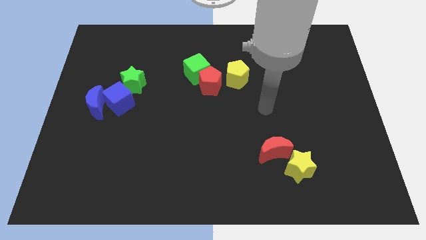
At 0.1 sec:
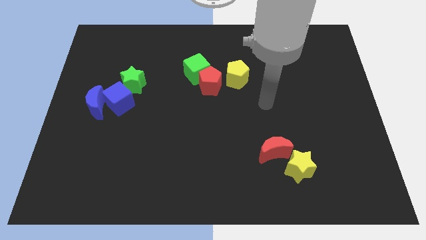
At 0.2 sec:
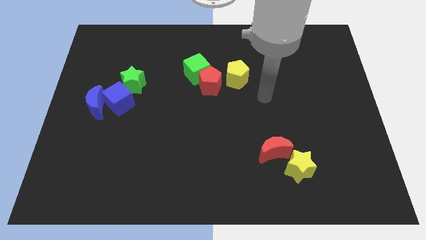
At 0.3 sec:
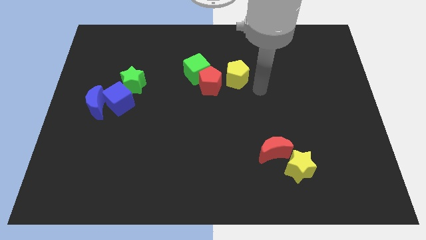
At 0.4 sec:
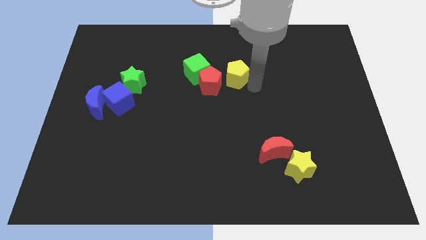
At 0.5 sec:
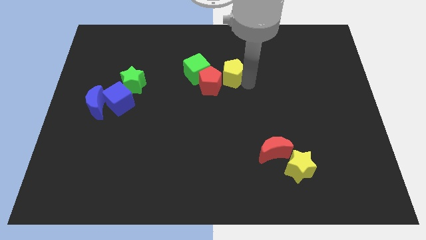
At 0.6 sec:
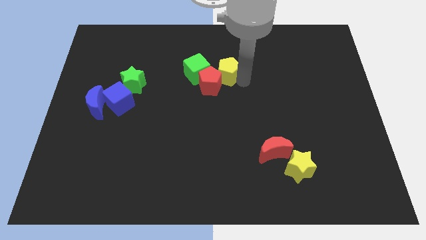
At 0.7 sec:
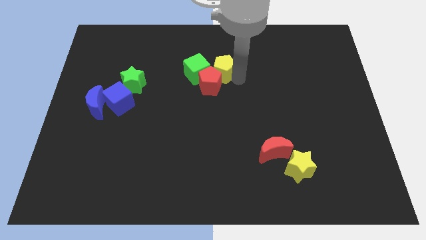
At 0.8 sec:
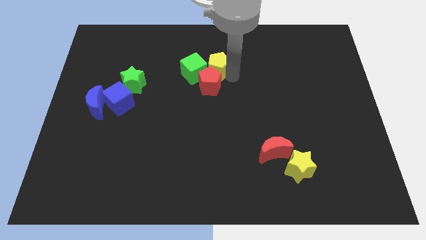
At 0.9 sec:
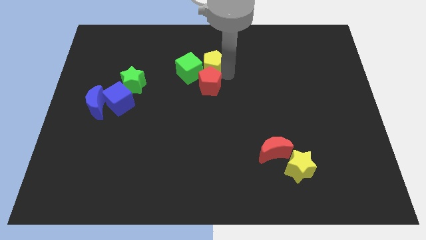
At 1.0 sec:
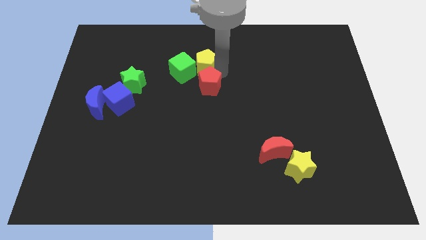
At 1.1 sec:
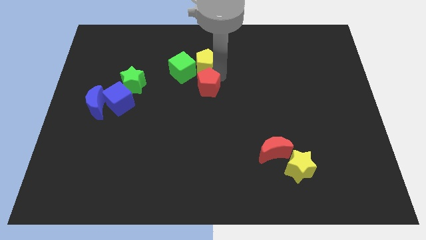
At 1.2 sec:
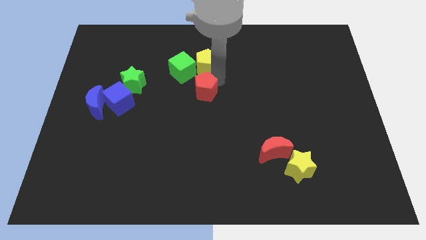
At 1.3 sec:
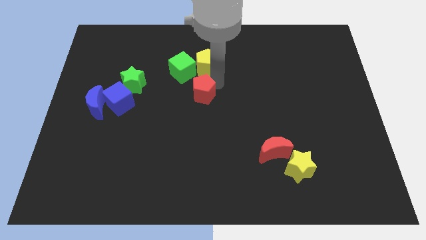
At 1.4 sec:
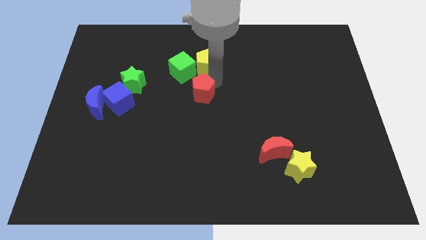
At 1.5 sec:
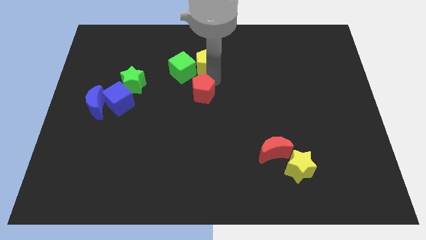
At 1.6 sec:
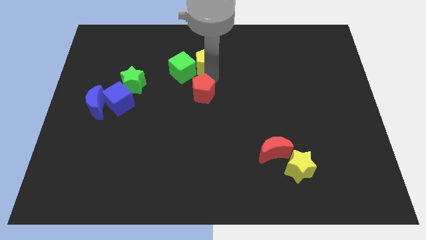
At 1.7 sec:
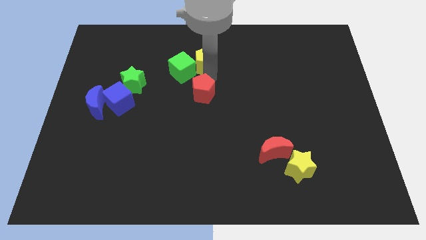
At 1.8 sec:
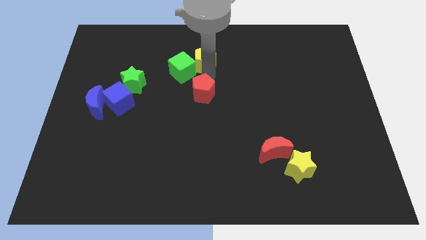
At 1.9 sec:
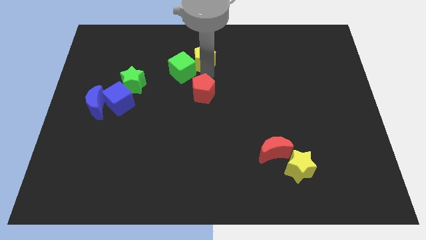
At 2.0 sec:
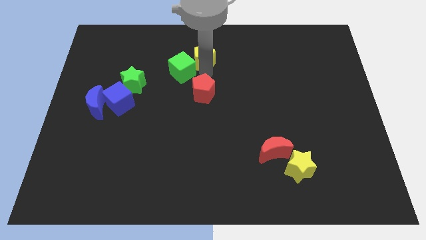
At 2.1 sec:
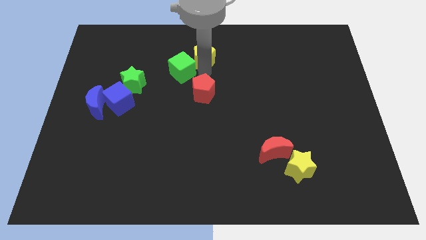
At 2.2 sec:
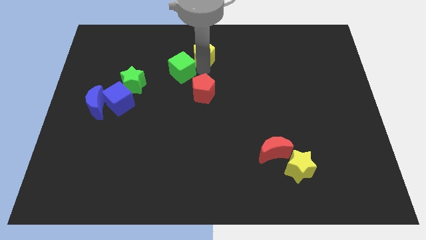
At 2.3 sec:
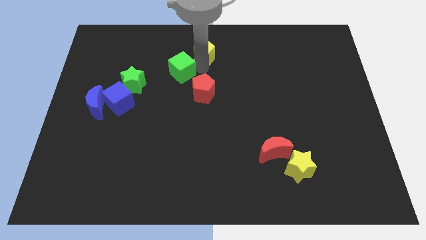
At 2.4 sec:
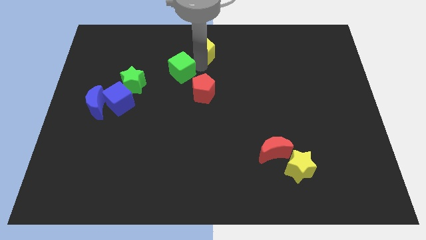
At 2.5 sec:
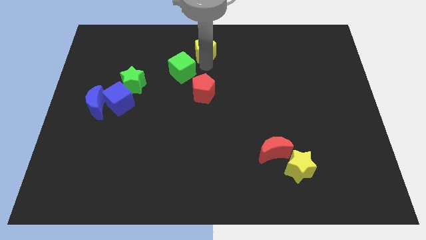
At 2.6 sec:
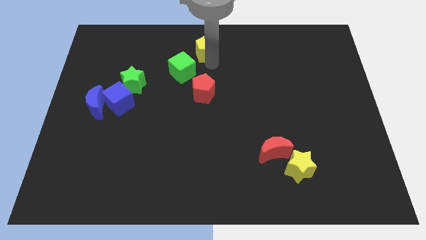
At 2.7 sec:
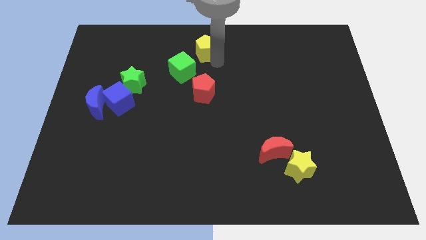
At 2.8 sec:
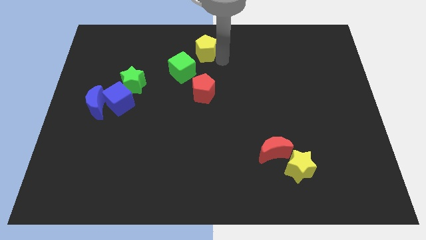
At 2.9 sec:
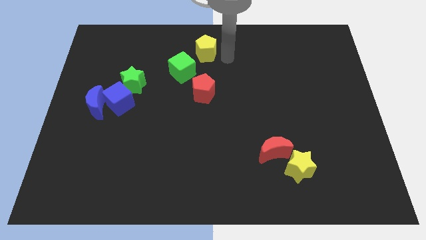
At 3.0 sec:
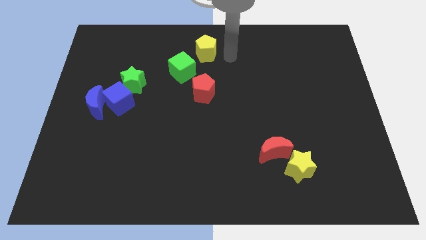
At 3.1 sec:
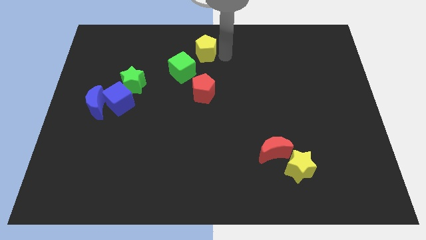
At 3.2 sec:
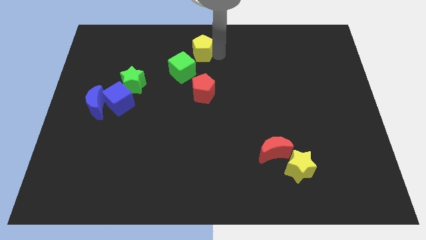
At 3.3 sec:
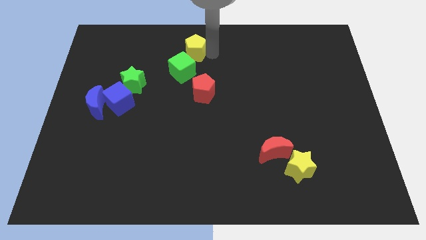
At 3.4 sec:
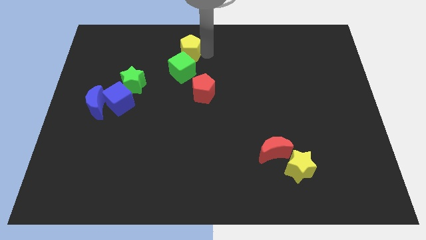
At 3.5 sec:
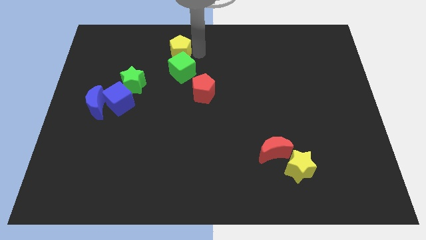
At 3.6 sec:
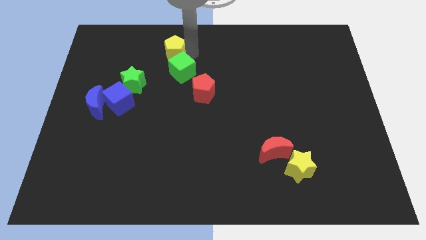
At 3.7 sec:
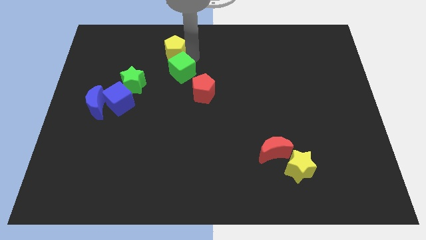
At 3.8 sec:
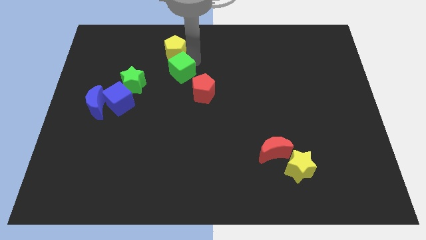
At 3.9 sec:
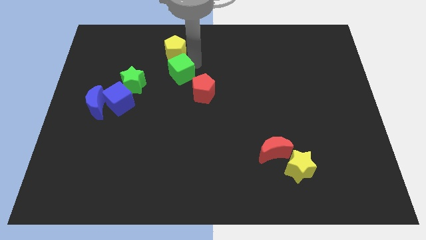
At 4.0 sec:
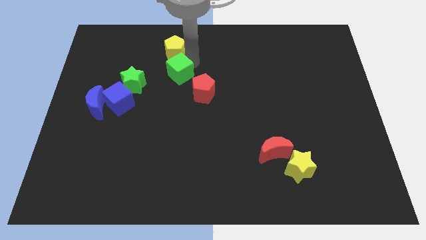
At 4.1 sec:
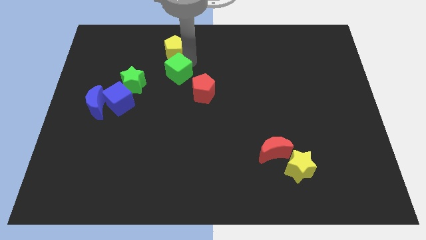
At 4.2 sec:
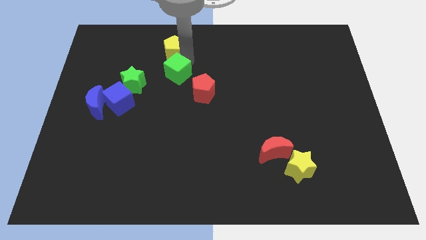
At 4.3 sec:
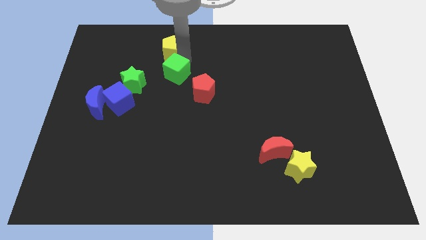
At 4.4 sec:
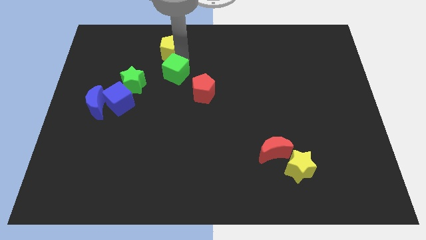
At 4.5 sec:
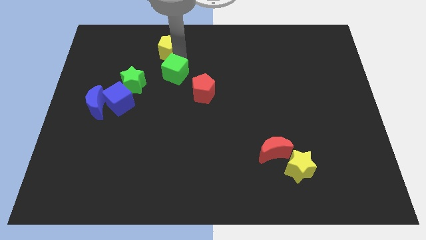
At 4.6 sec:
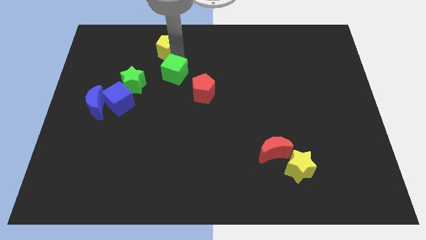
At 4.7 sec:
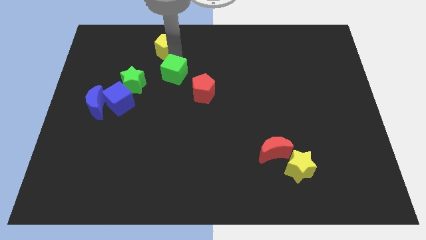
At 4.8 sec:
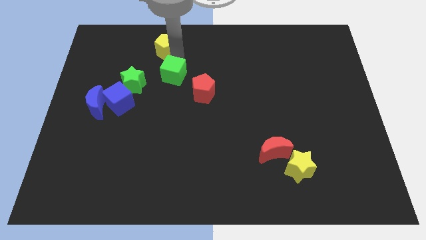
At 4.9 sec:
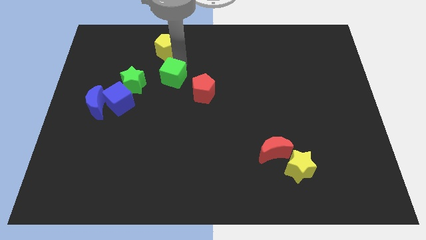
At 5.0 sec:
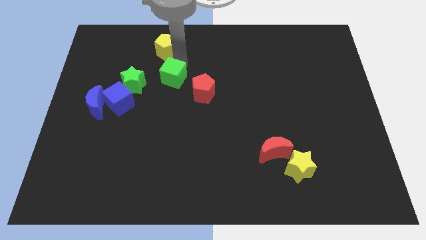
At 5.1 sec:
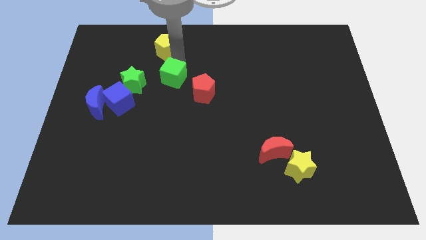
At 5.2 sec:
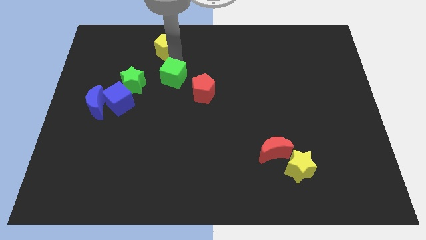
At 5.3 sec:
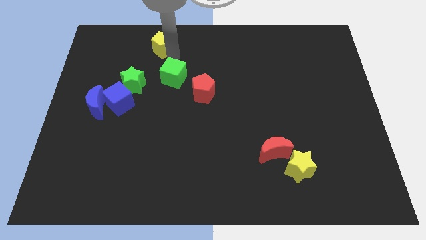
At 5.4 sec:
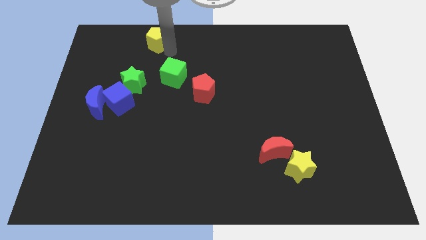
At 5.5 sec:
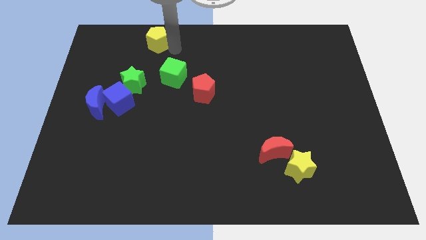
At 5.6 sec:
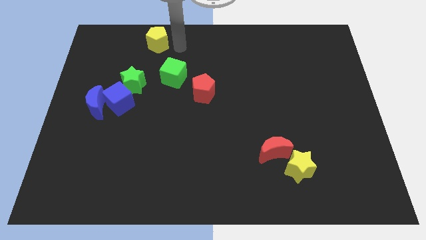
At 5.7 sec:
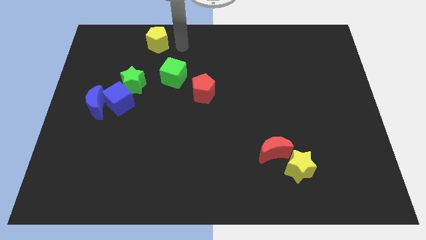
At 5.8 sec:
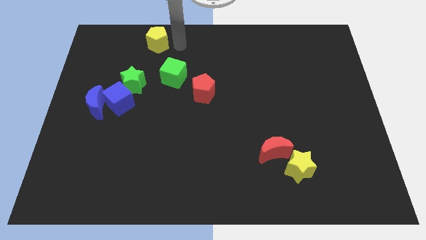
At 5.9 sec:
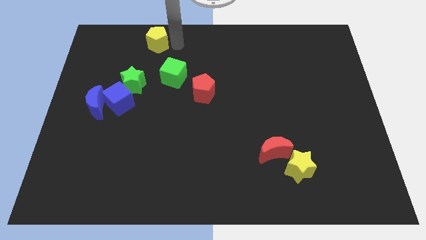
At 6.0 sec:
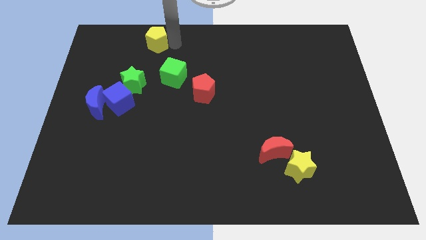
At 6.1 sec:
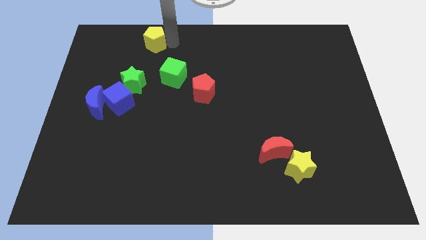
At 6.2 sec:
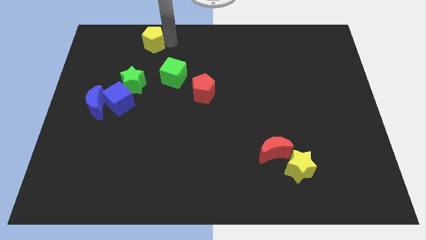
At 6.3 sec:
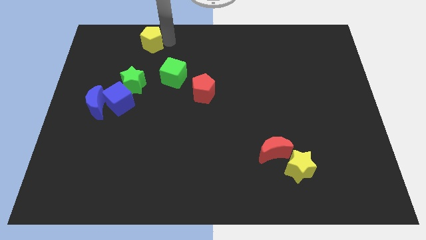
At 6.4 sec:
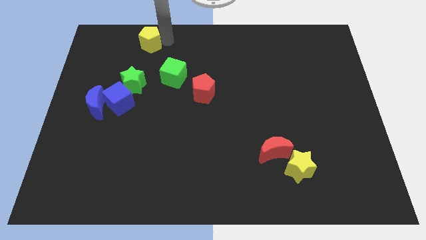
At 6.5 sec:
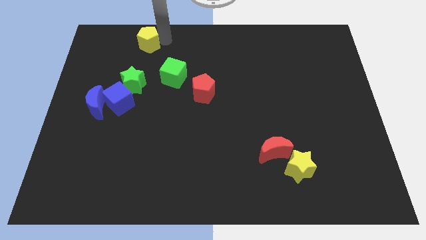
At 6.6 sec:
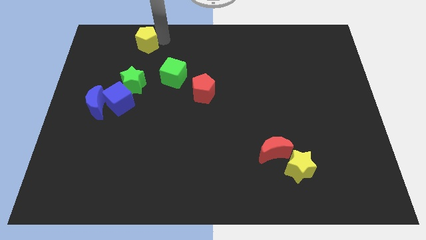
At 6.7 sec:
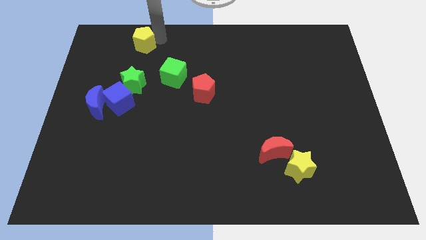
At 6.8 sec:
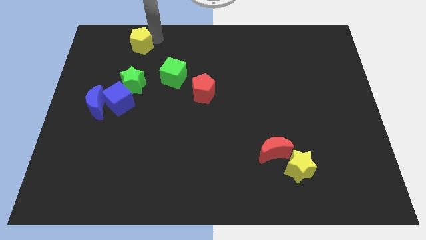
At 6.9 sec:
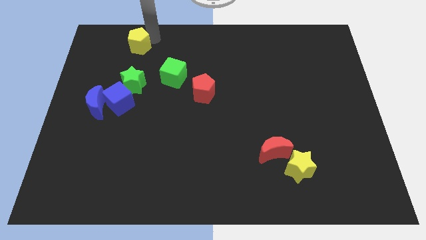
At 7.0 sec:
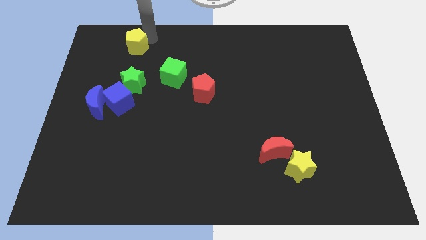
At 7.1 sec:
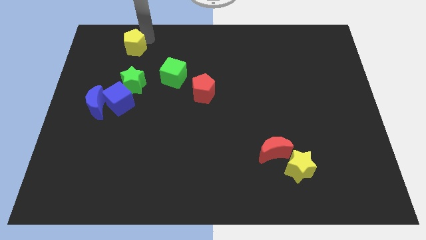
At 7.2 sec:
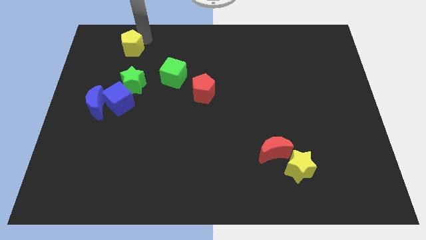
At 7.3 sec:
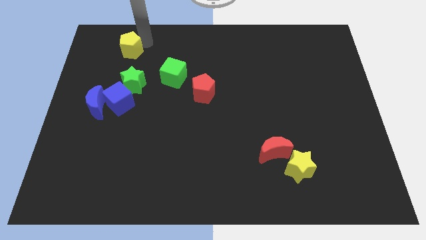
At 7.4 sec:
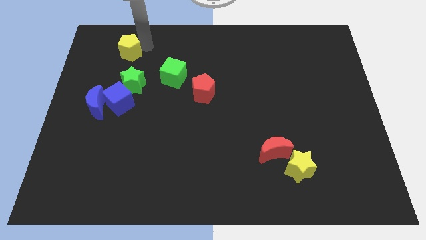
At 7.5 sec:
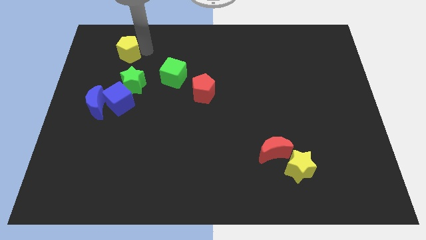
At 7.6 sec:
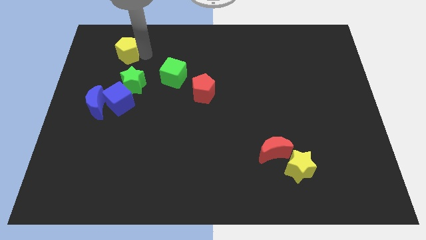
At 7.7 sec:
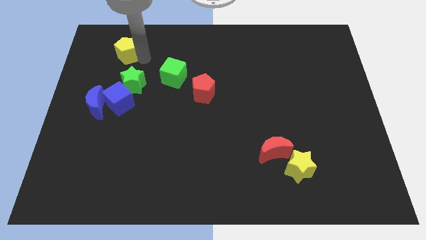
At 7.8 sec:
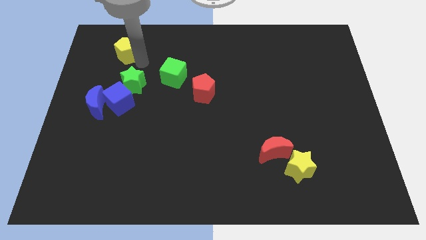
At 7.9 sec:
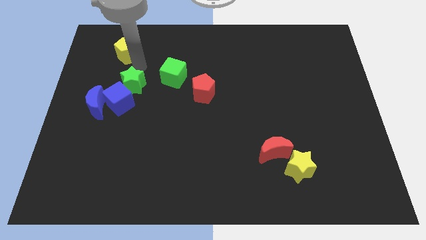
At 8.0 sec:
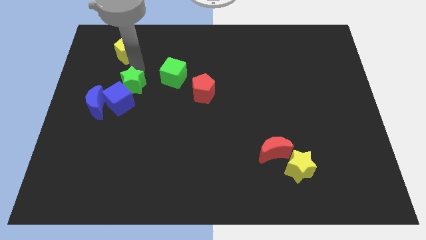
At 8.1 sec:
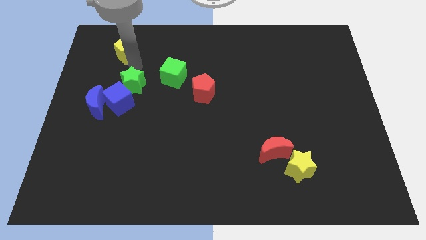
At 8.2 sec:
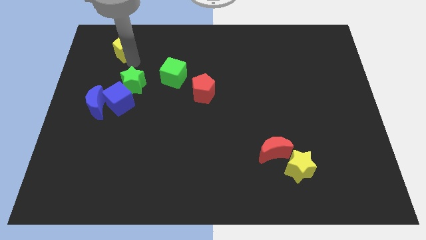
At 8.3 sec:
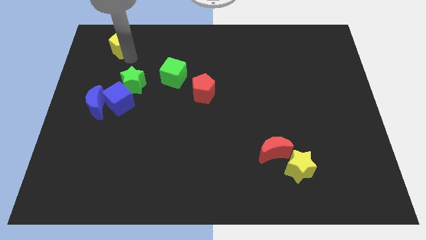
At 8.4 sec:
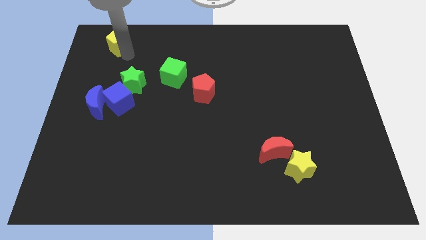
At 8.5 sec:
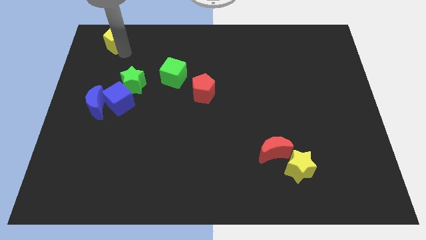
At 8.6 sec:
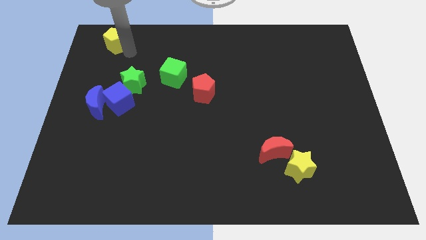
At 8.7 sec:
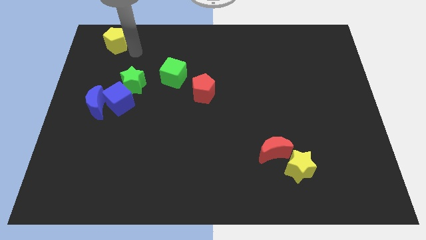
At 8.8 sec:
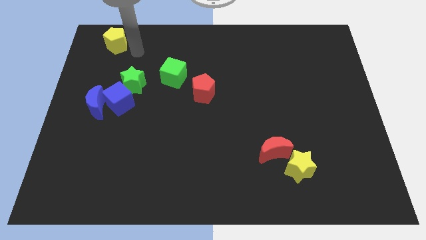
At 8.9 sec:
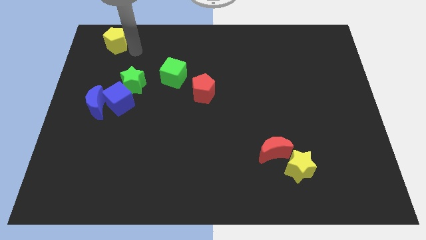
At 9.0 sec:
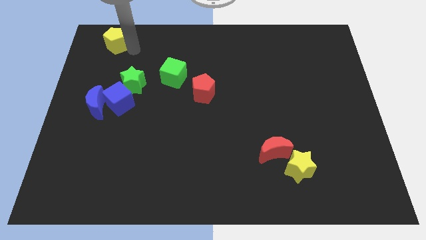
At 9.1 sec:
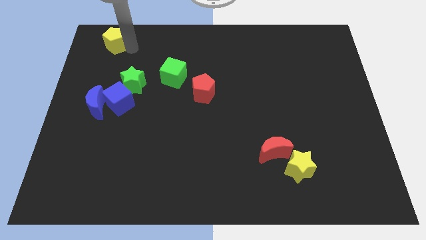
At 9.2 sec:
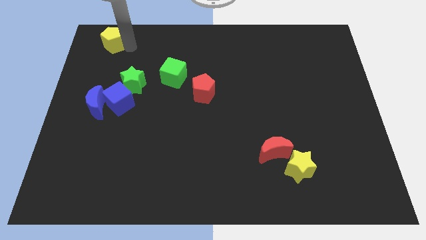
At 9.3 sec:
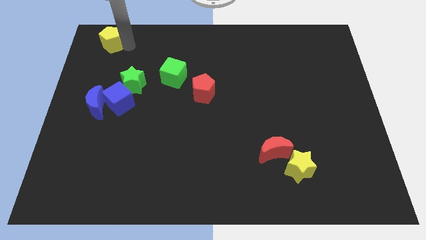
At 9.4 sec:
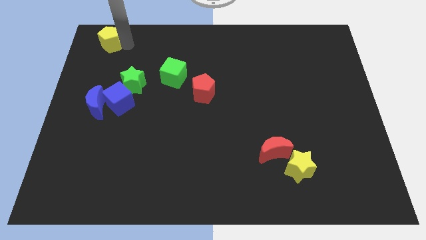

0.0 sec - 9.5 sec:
put the yellow pentagon to the top left of the board
